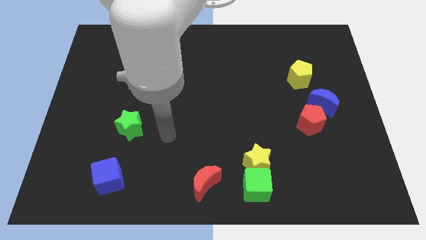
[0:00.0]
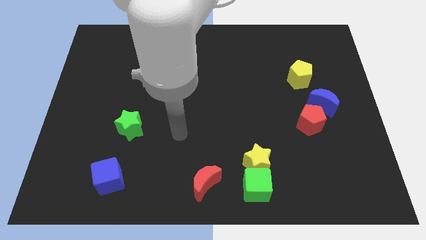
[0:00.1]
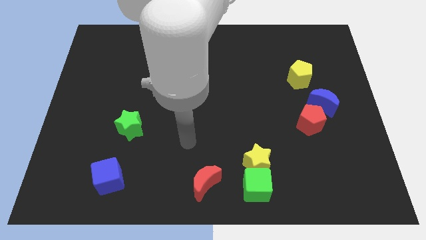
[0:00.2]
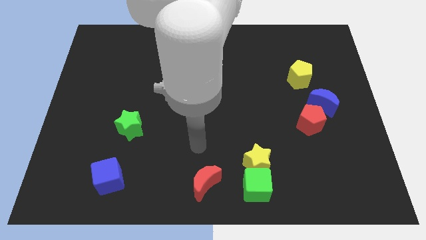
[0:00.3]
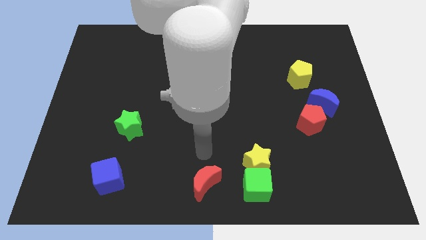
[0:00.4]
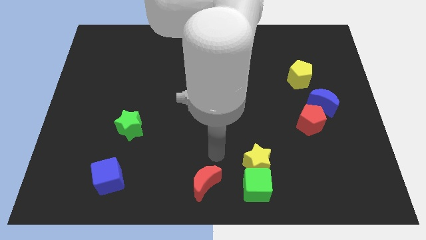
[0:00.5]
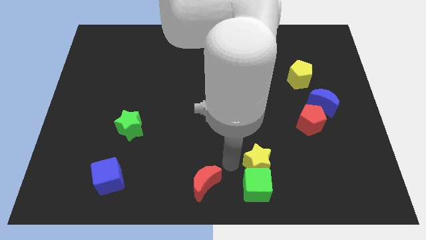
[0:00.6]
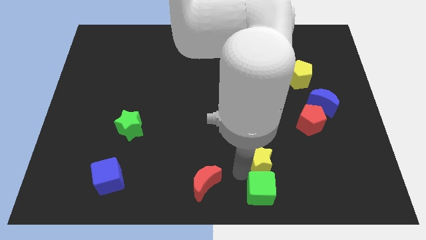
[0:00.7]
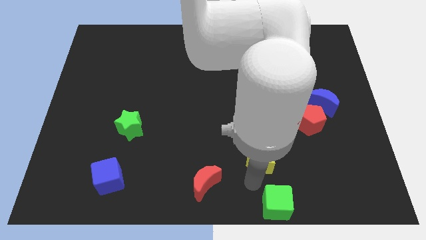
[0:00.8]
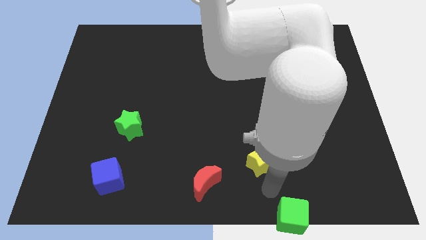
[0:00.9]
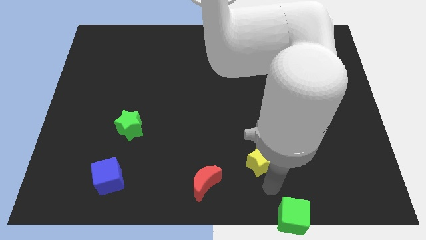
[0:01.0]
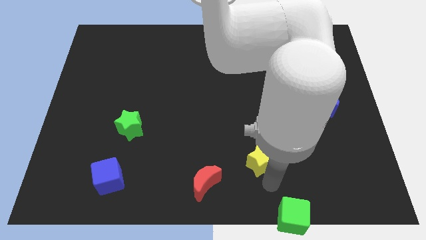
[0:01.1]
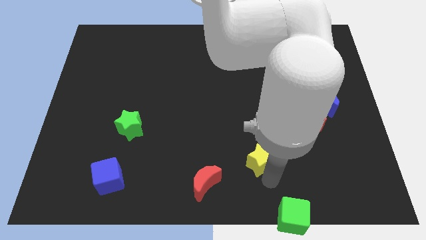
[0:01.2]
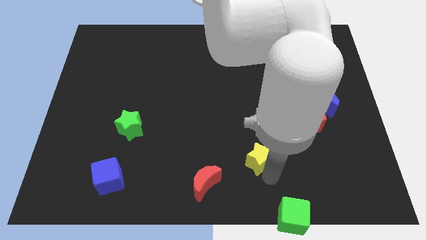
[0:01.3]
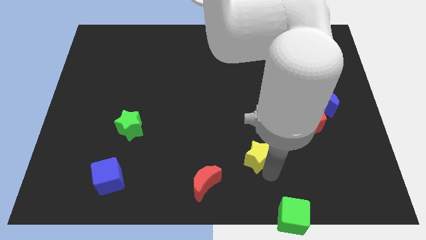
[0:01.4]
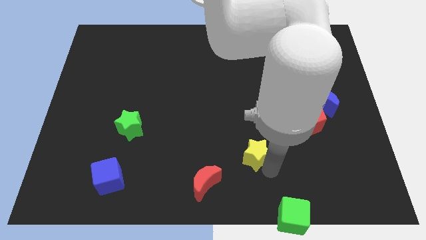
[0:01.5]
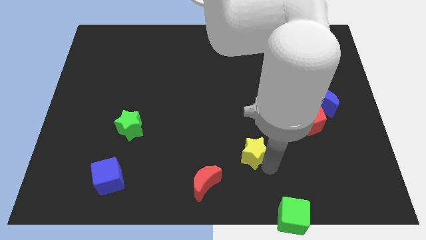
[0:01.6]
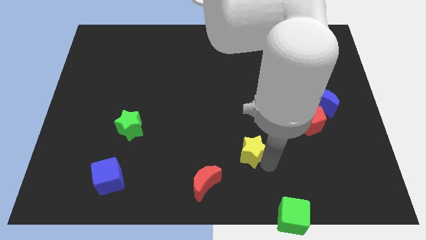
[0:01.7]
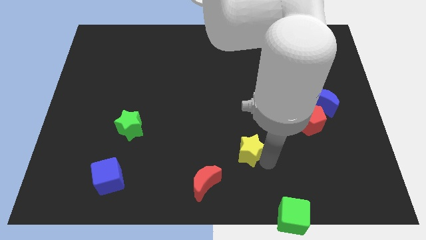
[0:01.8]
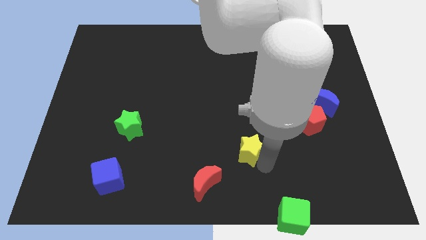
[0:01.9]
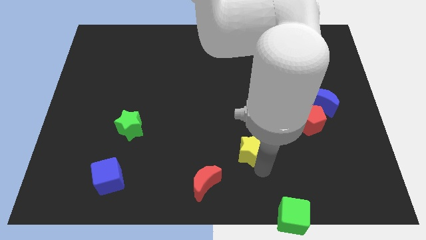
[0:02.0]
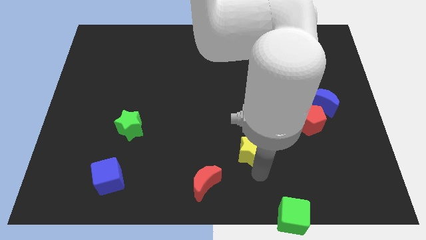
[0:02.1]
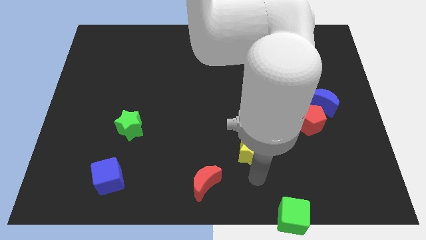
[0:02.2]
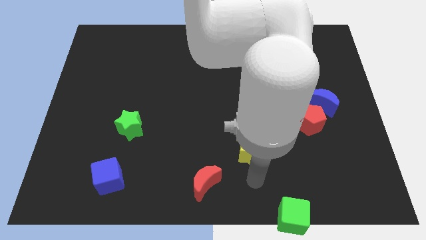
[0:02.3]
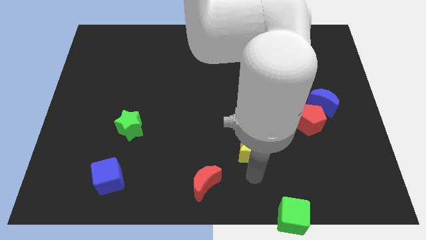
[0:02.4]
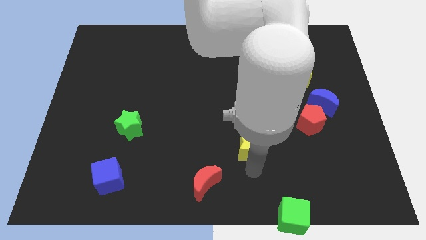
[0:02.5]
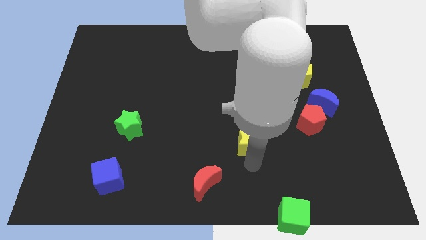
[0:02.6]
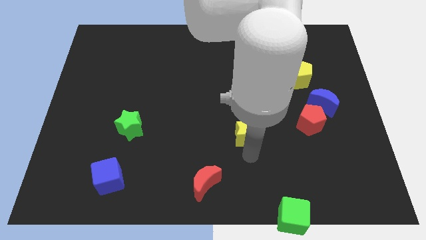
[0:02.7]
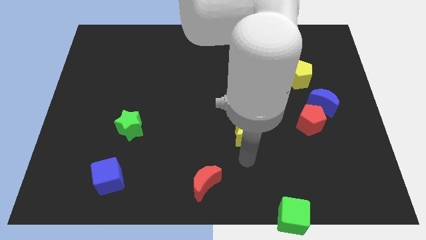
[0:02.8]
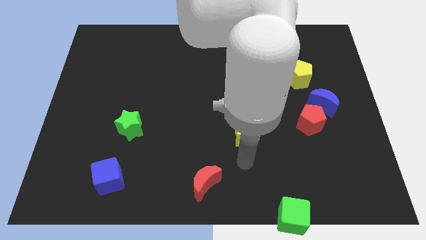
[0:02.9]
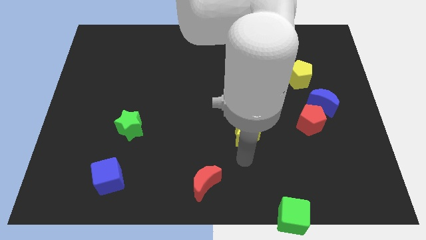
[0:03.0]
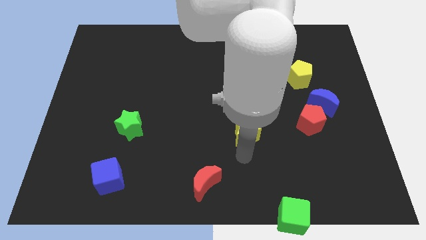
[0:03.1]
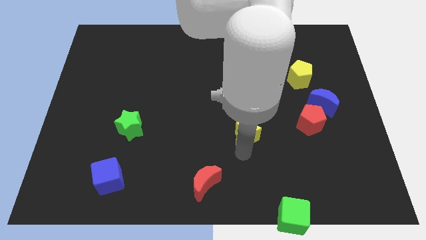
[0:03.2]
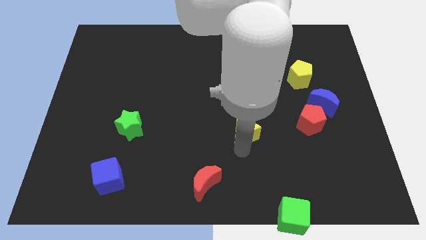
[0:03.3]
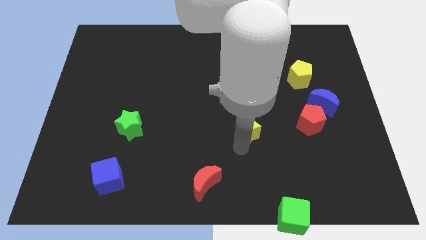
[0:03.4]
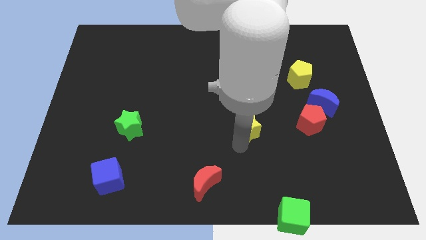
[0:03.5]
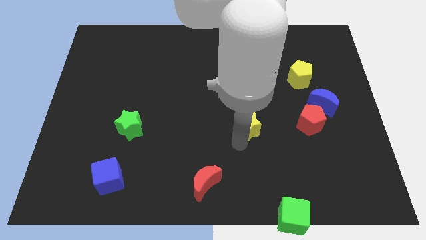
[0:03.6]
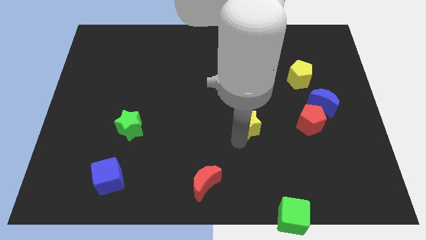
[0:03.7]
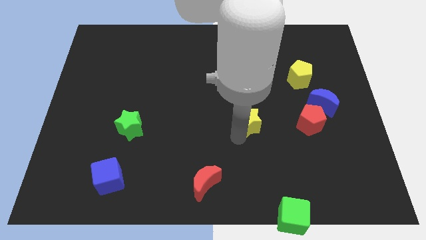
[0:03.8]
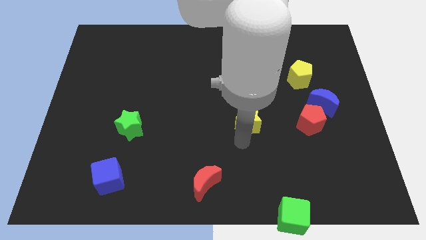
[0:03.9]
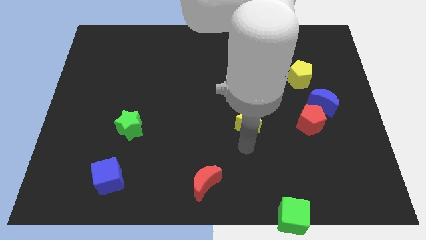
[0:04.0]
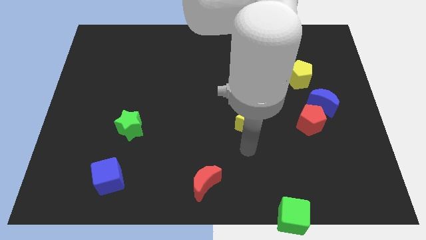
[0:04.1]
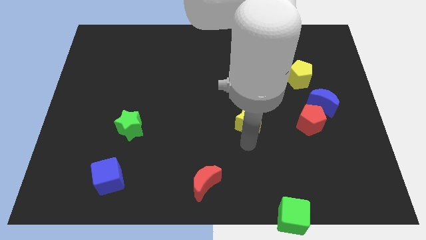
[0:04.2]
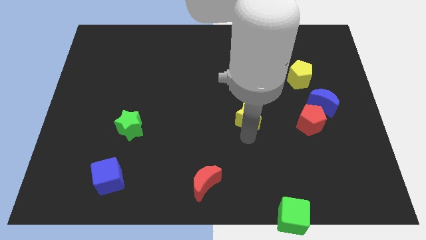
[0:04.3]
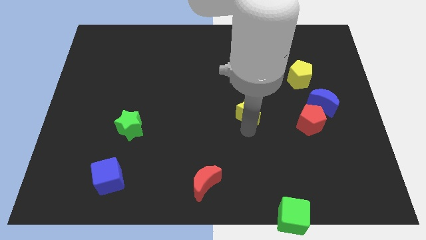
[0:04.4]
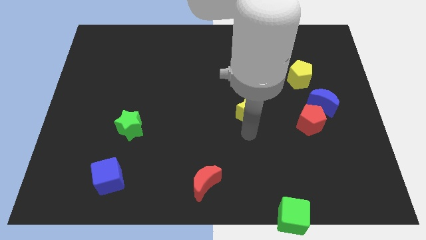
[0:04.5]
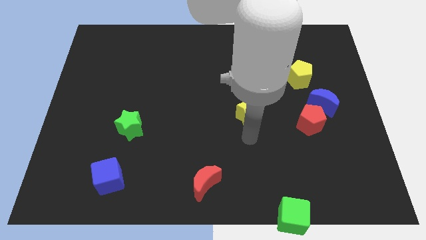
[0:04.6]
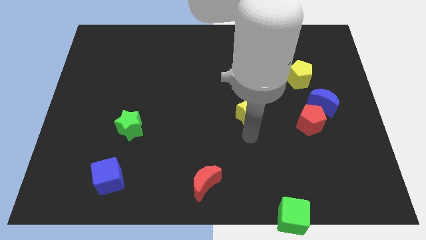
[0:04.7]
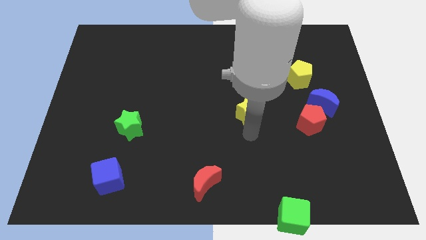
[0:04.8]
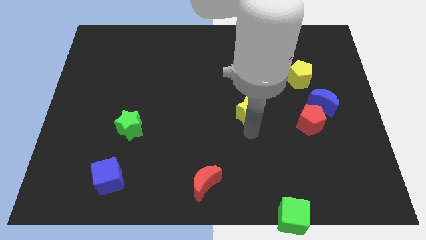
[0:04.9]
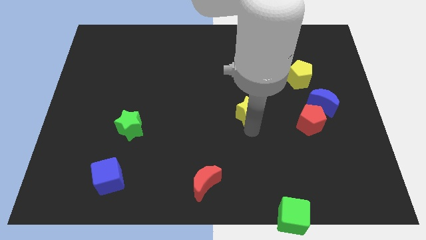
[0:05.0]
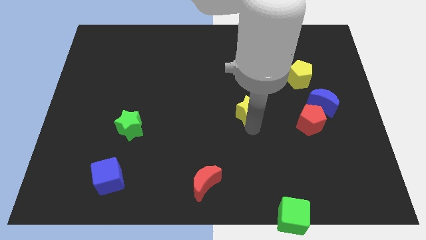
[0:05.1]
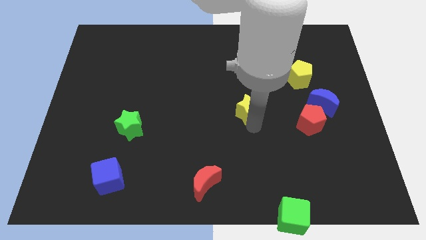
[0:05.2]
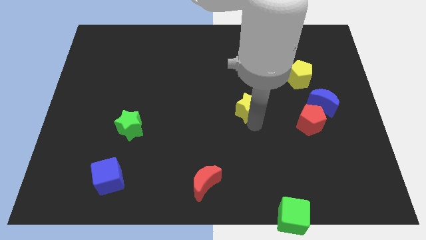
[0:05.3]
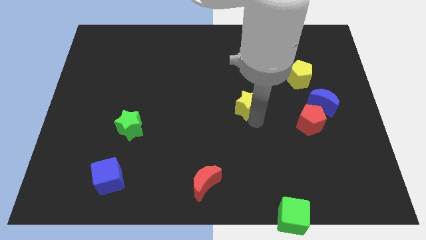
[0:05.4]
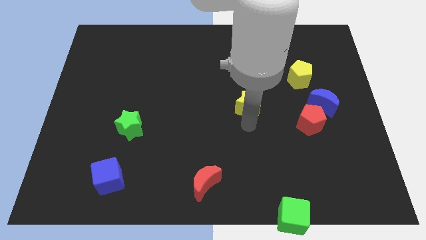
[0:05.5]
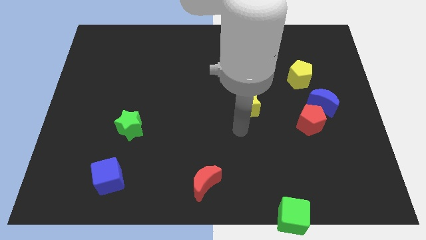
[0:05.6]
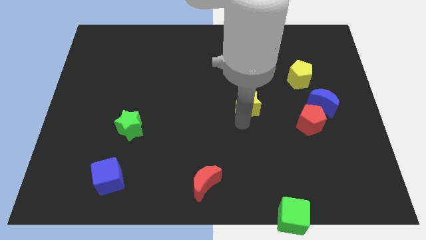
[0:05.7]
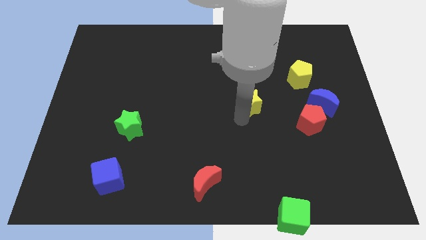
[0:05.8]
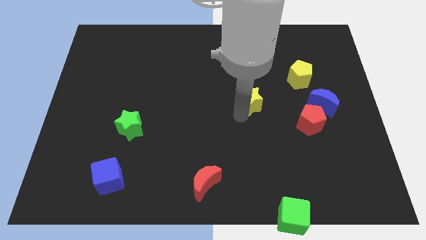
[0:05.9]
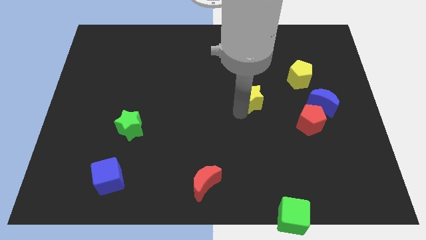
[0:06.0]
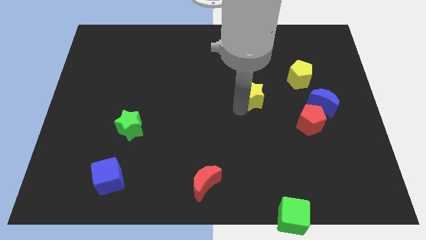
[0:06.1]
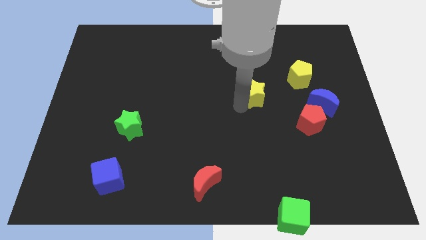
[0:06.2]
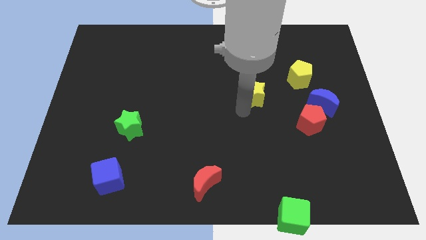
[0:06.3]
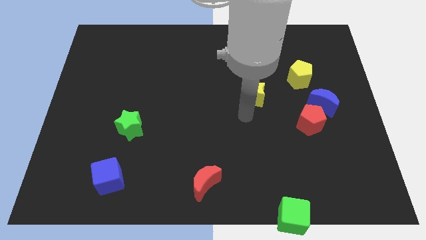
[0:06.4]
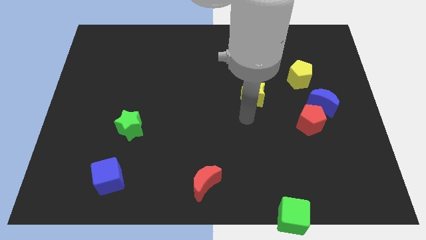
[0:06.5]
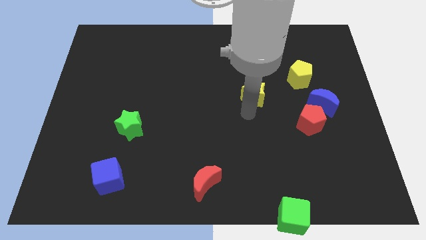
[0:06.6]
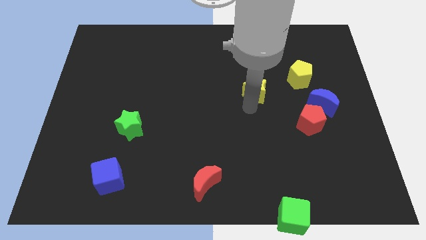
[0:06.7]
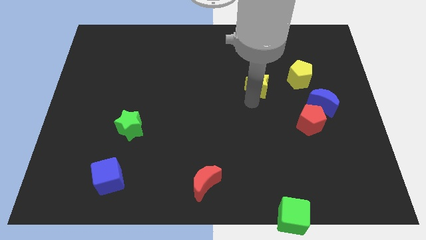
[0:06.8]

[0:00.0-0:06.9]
move the yellow star to the left of the yellow pentagon

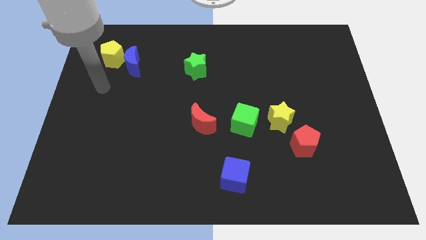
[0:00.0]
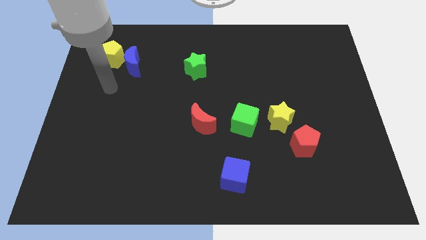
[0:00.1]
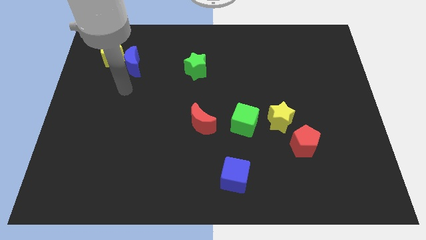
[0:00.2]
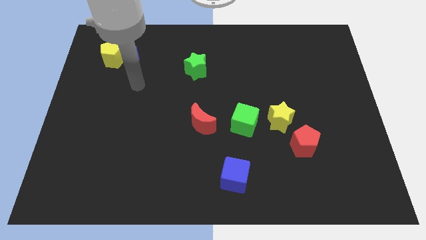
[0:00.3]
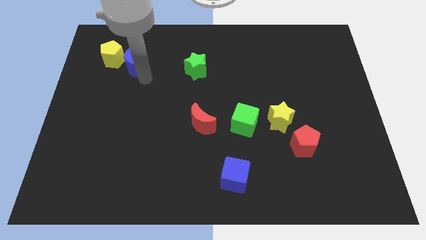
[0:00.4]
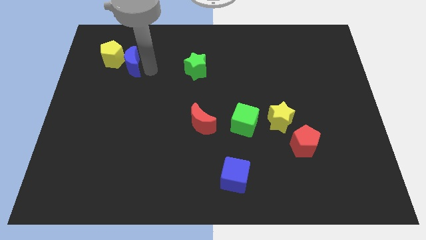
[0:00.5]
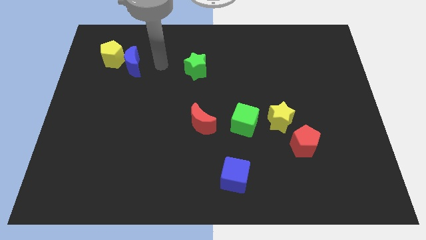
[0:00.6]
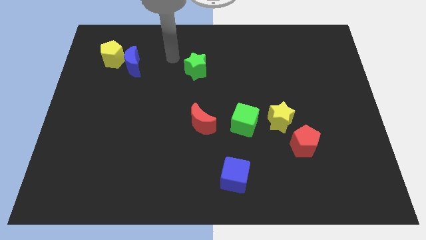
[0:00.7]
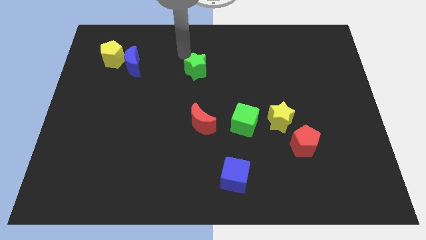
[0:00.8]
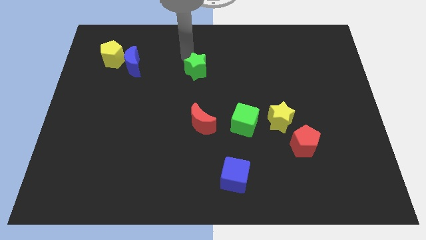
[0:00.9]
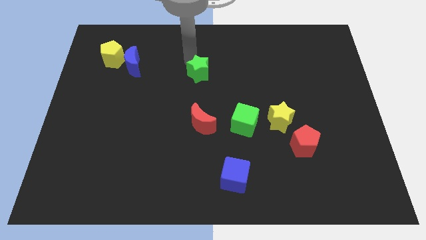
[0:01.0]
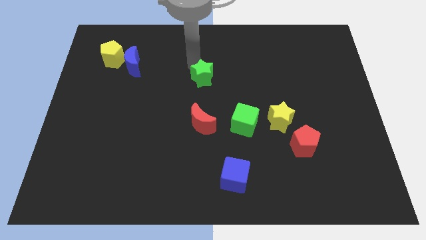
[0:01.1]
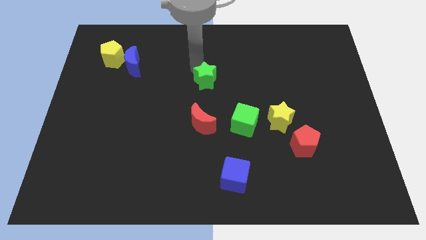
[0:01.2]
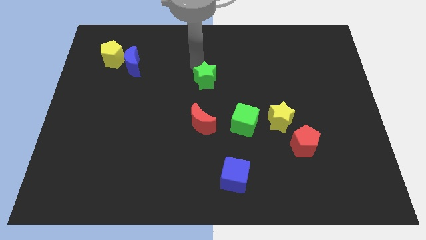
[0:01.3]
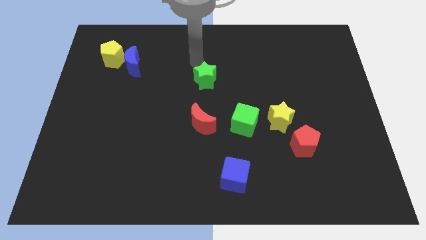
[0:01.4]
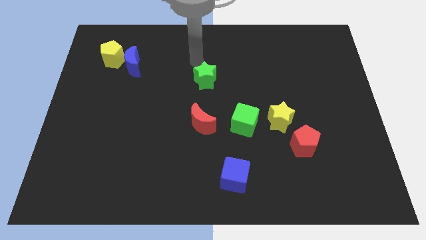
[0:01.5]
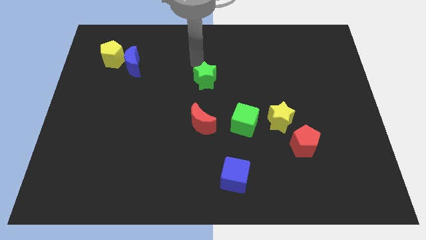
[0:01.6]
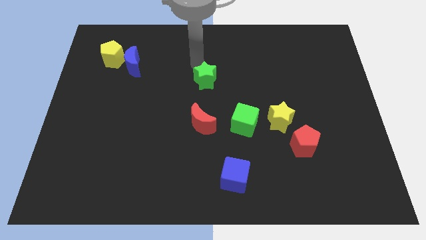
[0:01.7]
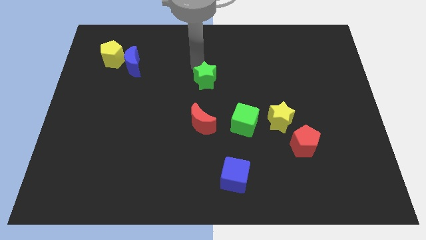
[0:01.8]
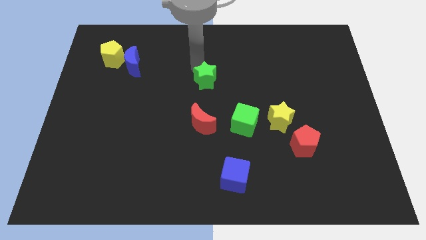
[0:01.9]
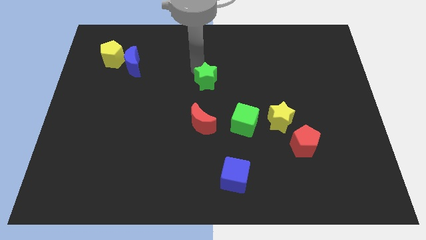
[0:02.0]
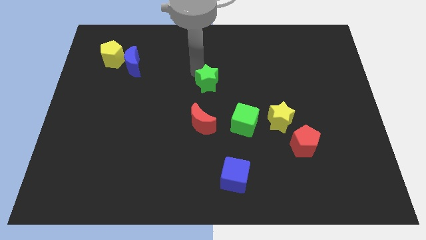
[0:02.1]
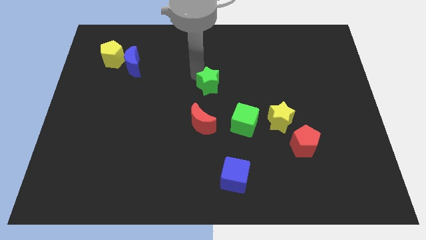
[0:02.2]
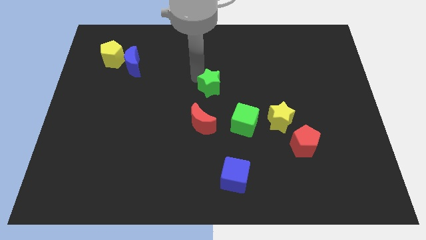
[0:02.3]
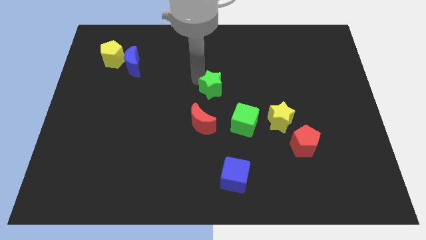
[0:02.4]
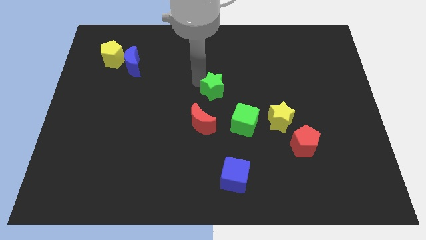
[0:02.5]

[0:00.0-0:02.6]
move the green star diagonally up and to the left of the green cube
